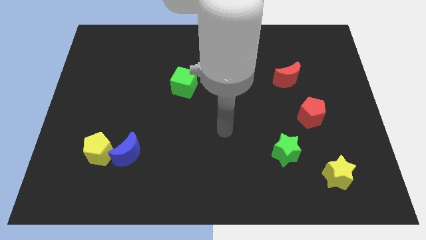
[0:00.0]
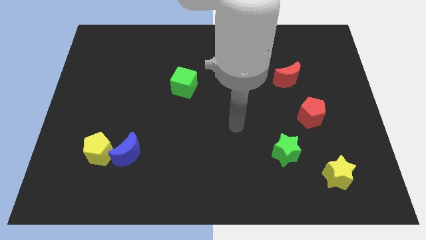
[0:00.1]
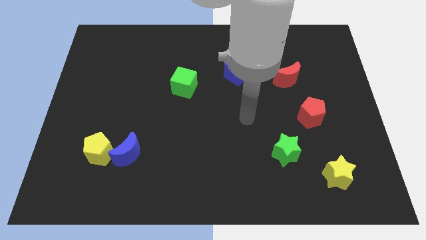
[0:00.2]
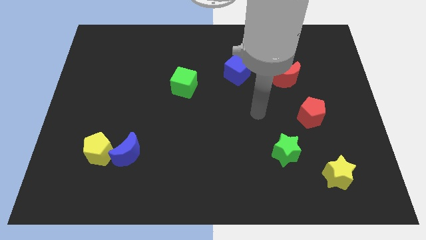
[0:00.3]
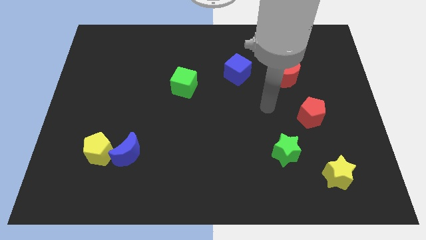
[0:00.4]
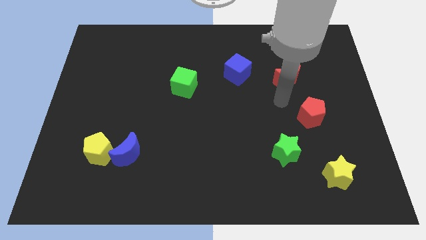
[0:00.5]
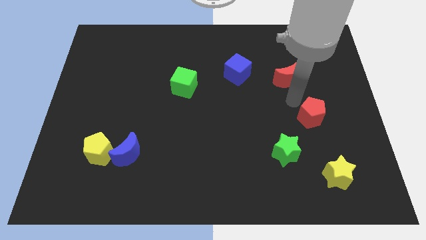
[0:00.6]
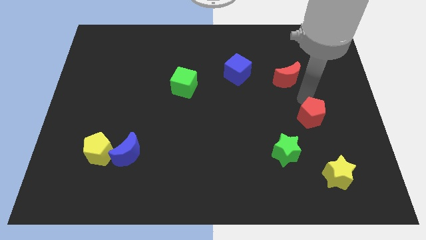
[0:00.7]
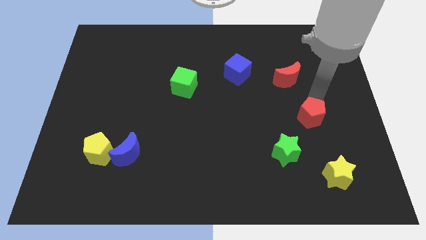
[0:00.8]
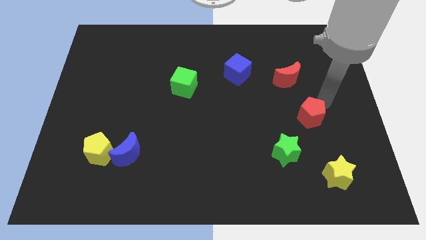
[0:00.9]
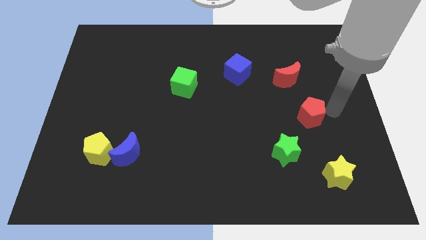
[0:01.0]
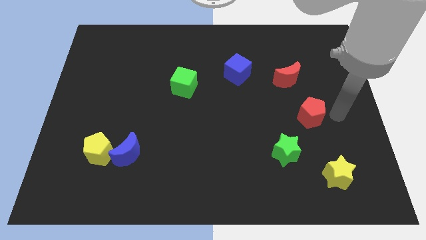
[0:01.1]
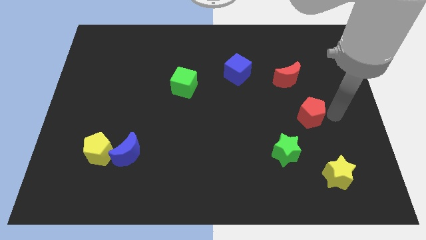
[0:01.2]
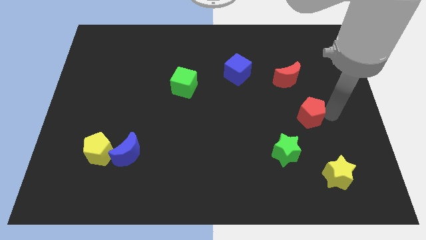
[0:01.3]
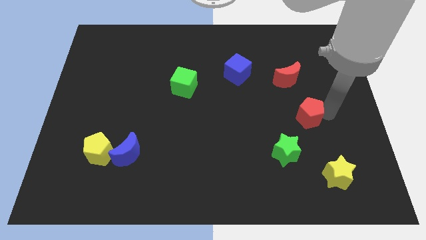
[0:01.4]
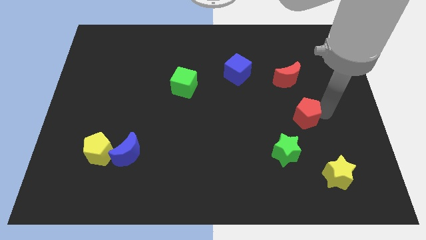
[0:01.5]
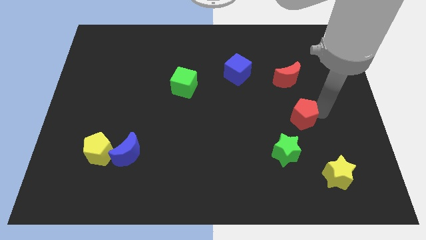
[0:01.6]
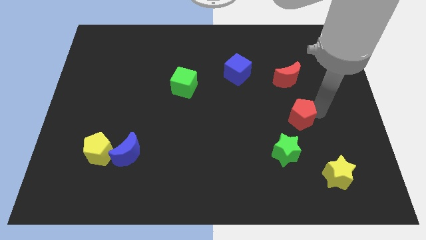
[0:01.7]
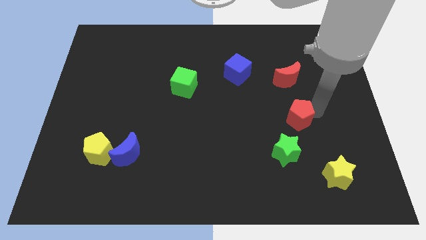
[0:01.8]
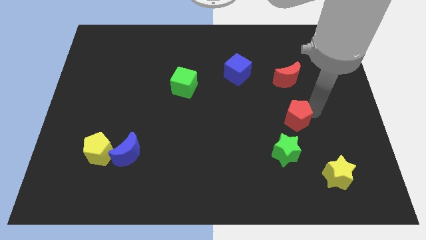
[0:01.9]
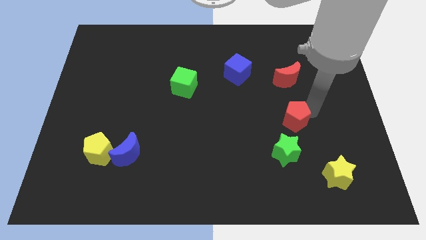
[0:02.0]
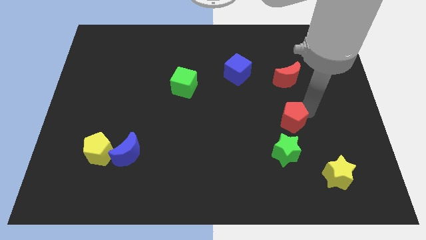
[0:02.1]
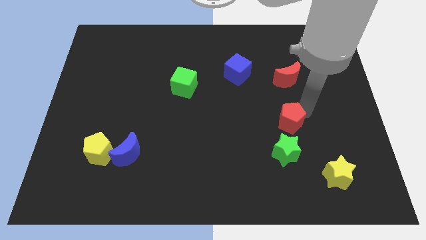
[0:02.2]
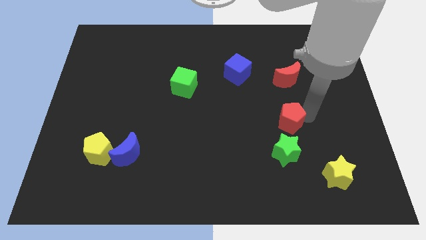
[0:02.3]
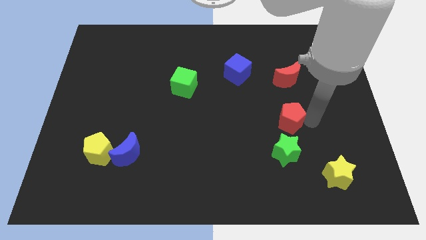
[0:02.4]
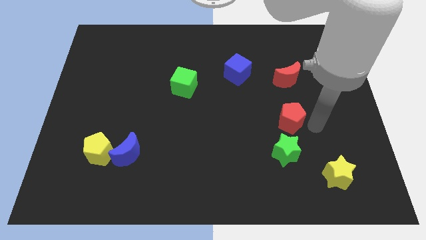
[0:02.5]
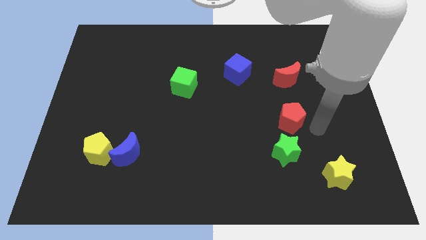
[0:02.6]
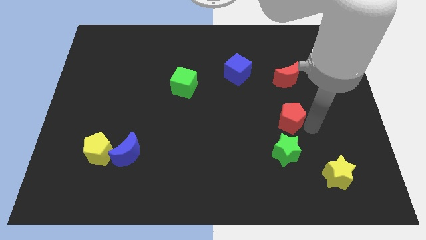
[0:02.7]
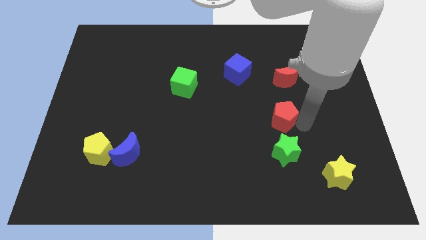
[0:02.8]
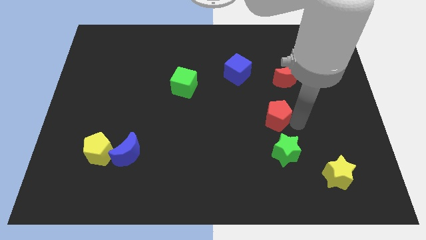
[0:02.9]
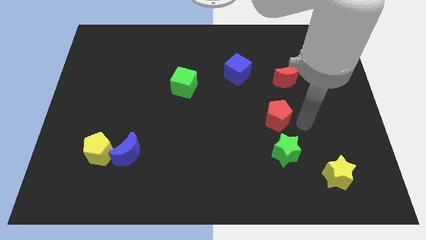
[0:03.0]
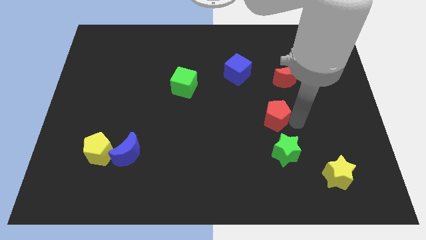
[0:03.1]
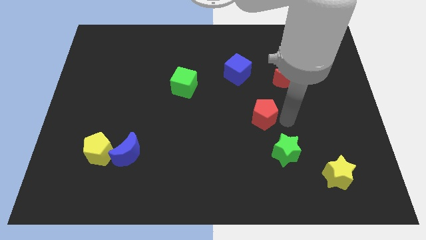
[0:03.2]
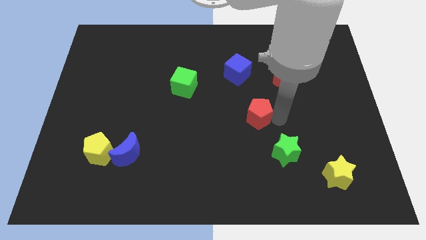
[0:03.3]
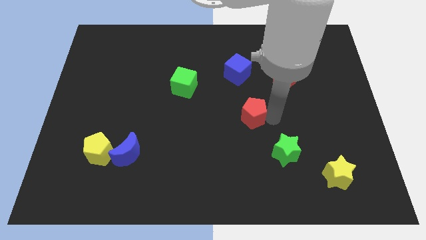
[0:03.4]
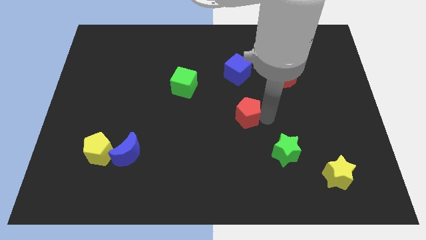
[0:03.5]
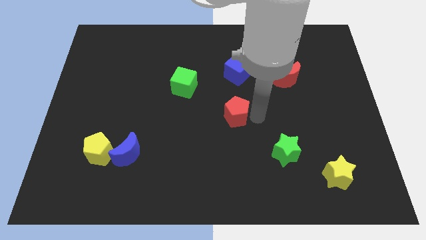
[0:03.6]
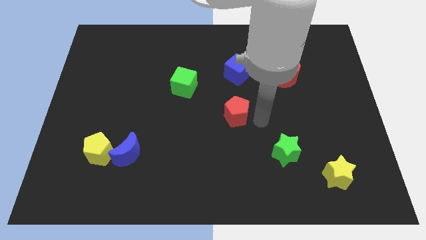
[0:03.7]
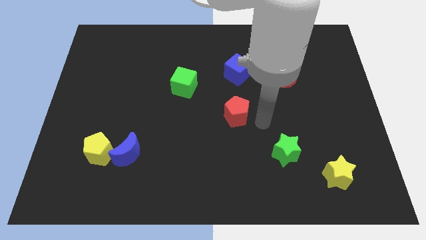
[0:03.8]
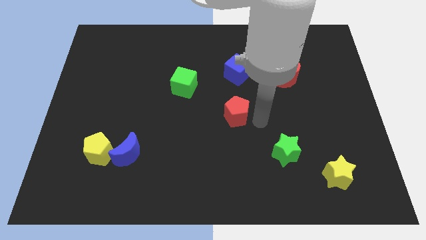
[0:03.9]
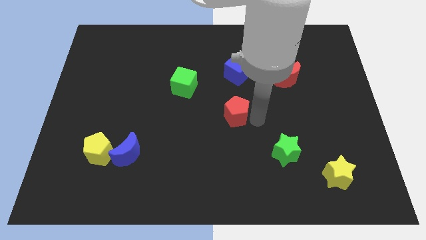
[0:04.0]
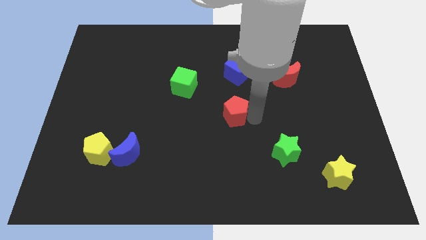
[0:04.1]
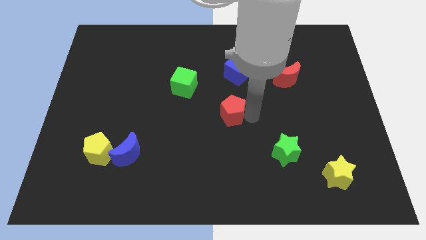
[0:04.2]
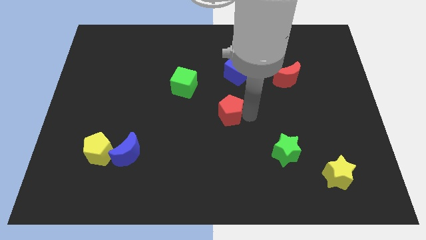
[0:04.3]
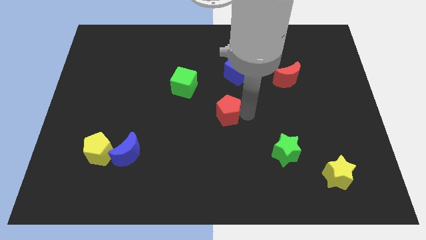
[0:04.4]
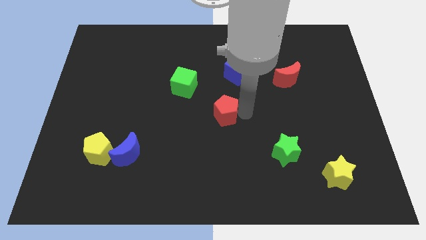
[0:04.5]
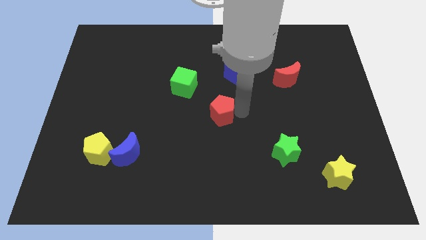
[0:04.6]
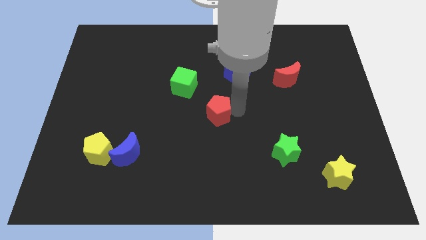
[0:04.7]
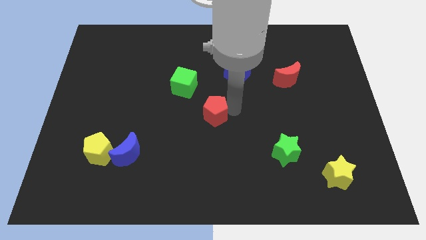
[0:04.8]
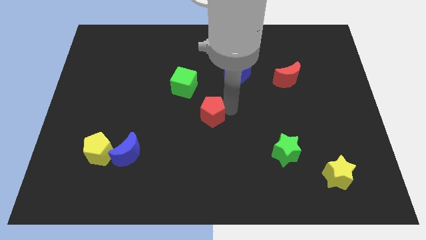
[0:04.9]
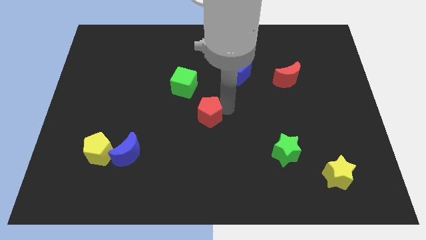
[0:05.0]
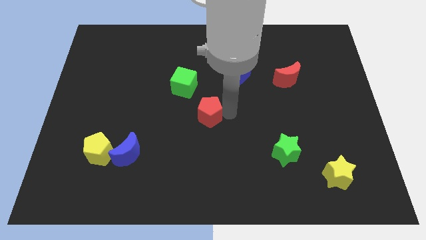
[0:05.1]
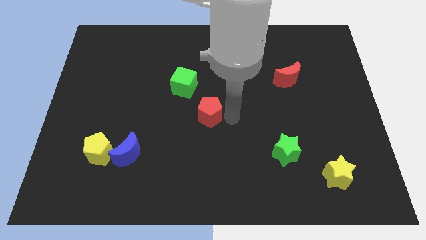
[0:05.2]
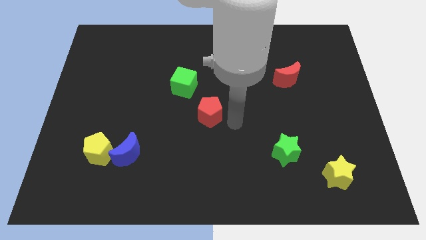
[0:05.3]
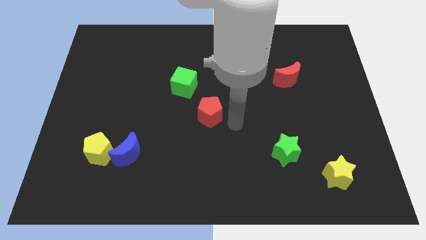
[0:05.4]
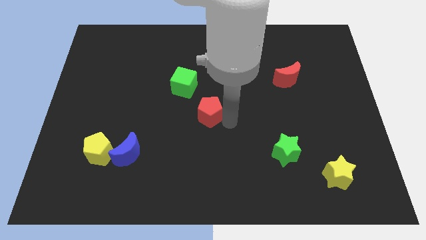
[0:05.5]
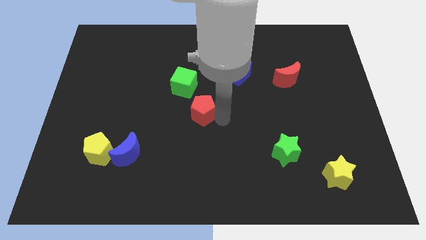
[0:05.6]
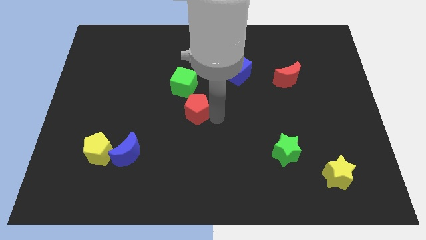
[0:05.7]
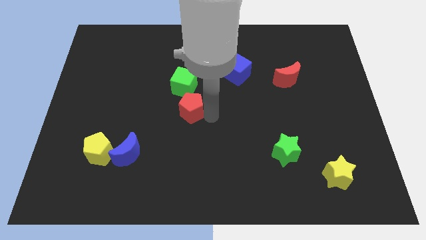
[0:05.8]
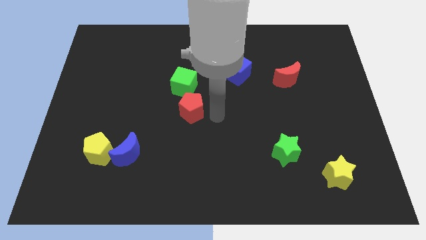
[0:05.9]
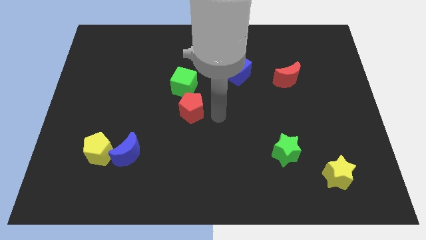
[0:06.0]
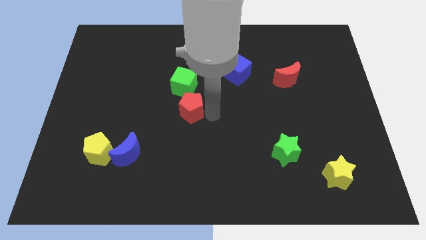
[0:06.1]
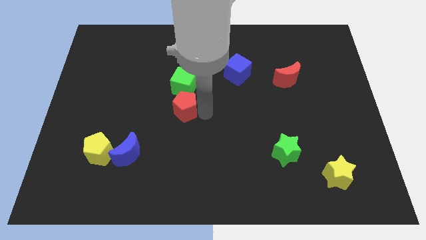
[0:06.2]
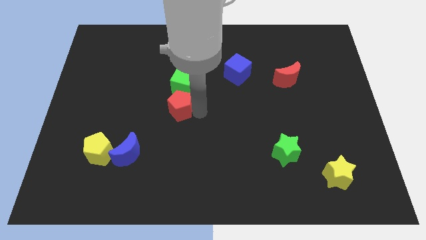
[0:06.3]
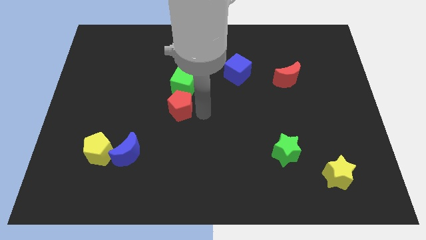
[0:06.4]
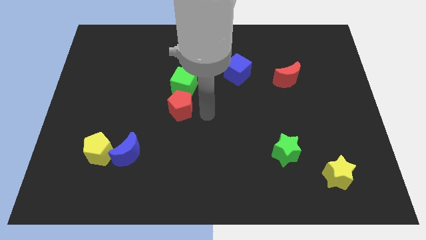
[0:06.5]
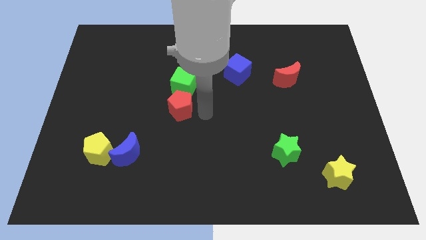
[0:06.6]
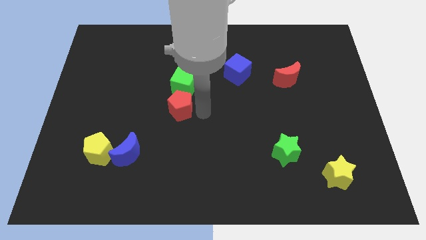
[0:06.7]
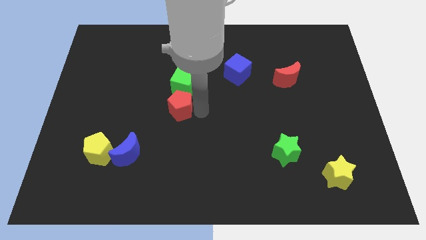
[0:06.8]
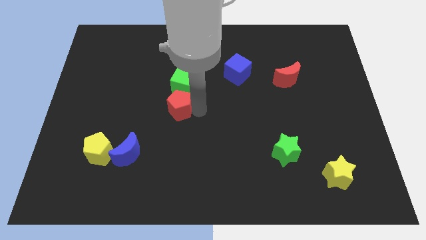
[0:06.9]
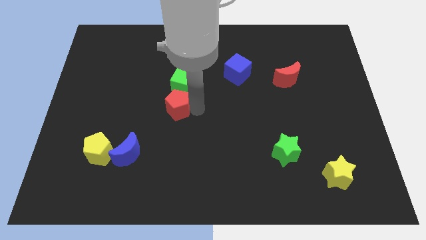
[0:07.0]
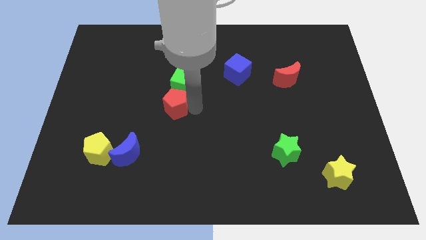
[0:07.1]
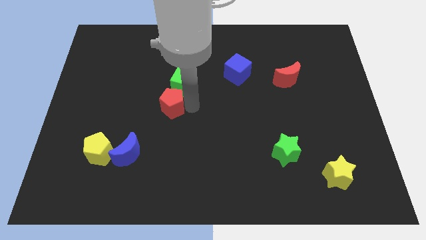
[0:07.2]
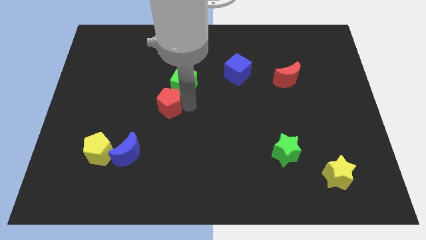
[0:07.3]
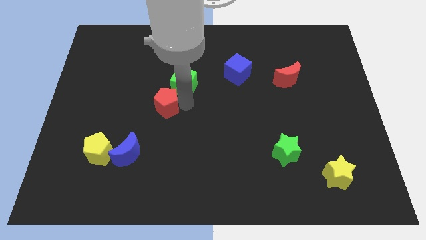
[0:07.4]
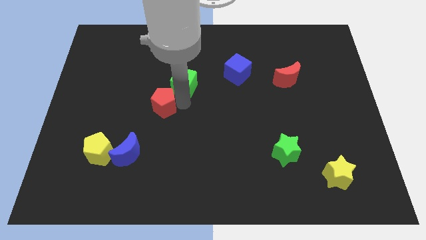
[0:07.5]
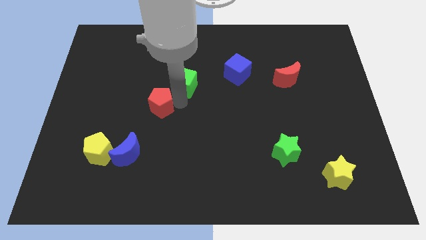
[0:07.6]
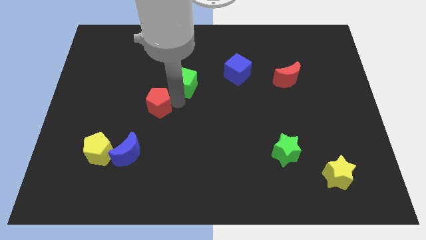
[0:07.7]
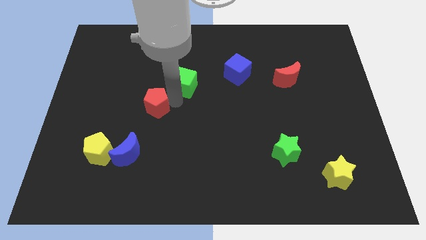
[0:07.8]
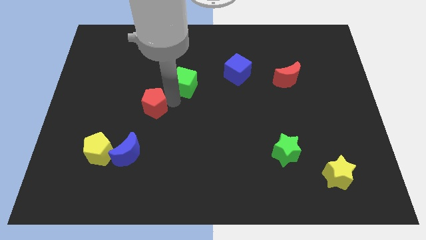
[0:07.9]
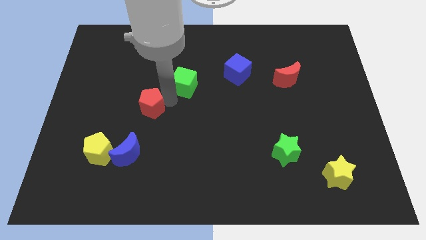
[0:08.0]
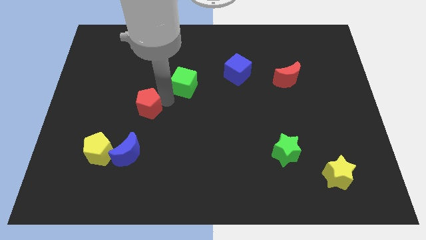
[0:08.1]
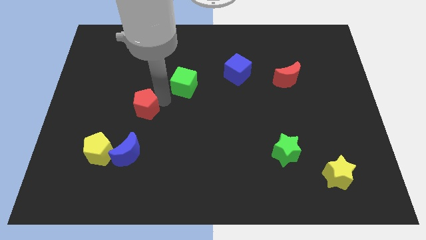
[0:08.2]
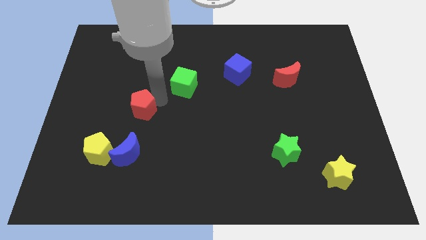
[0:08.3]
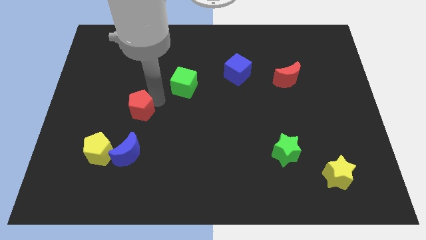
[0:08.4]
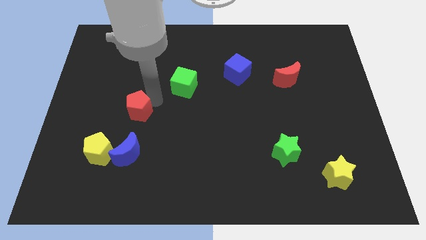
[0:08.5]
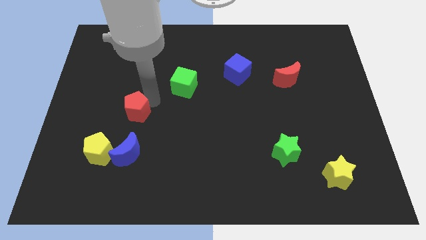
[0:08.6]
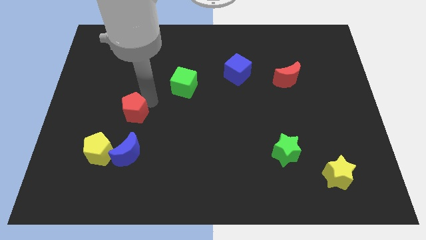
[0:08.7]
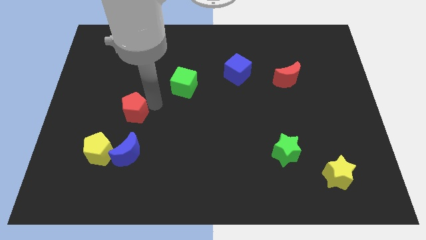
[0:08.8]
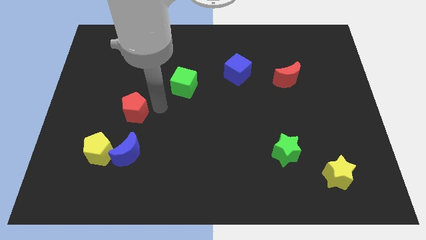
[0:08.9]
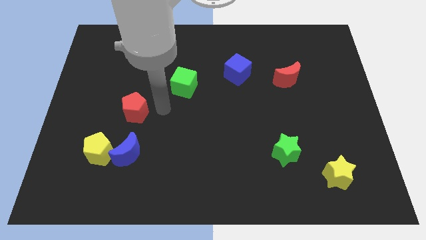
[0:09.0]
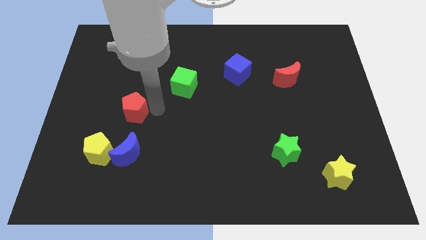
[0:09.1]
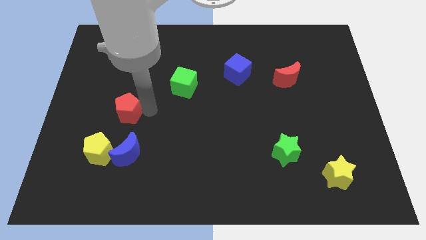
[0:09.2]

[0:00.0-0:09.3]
slide the red pentagon to the top of the yellow pentagon
